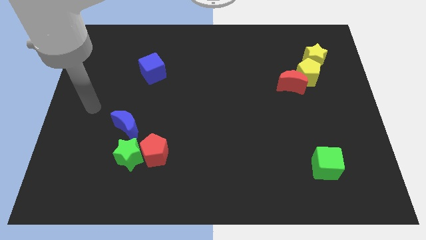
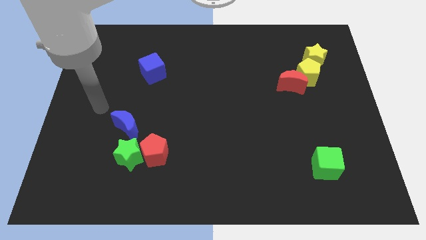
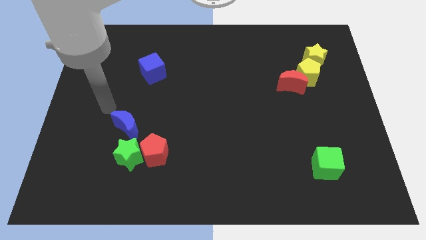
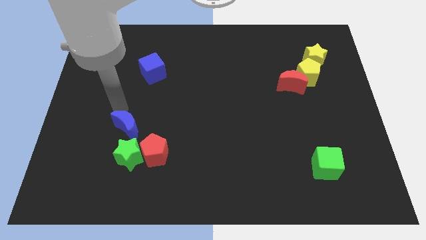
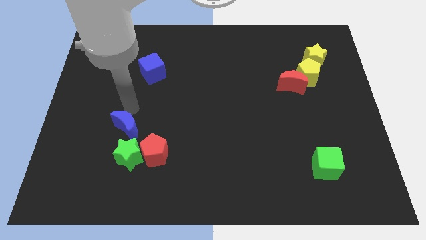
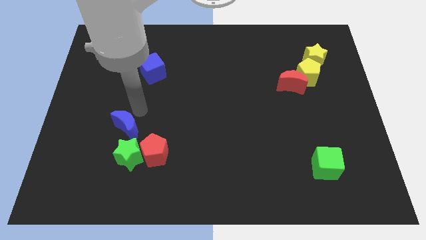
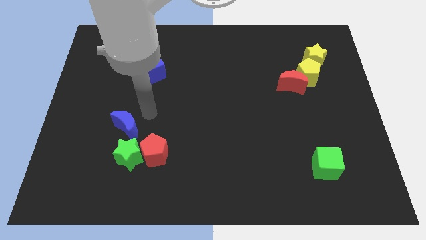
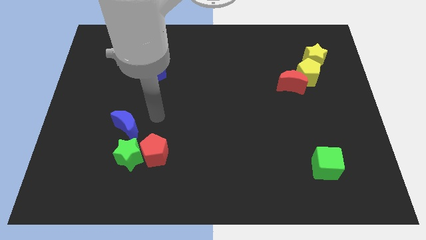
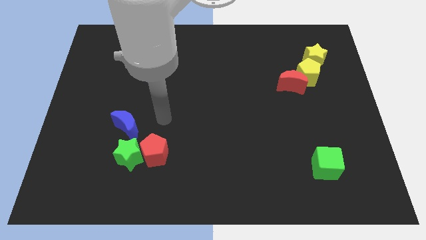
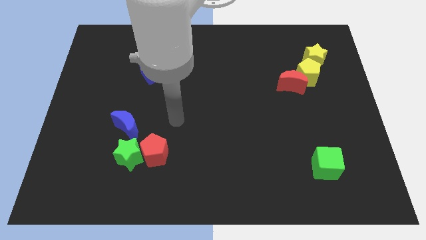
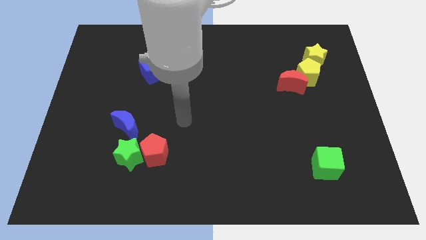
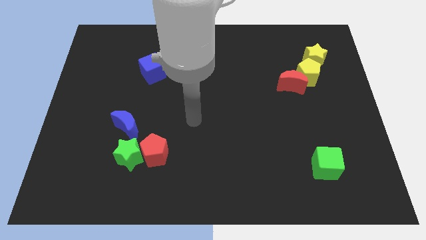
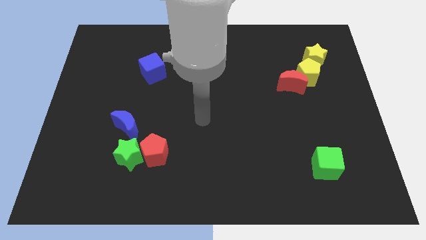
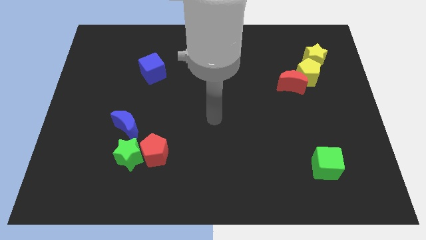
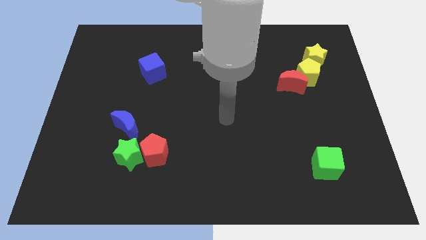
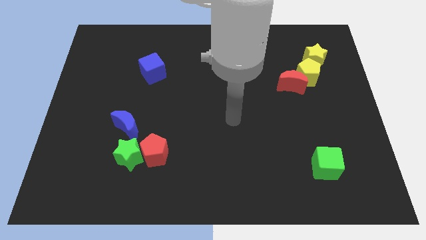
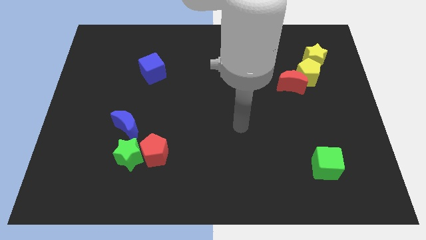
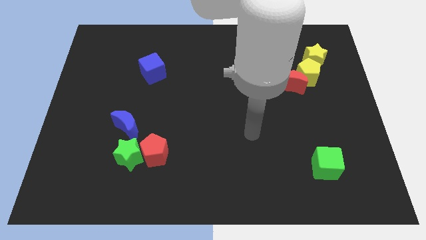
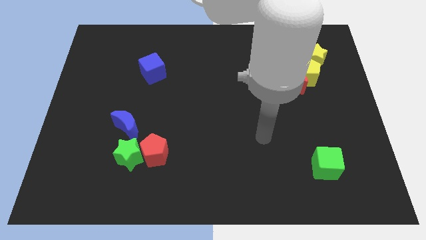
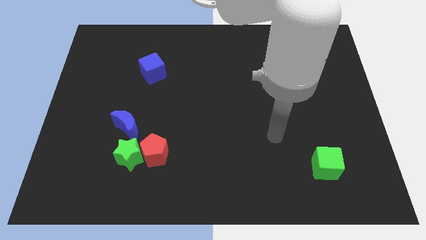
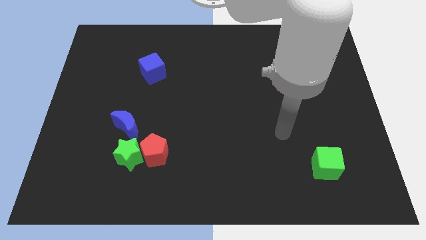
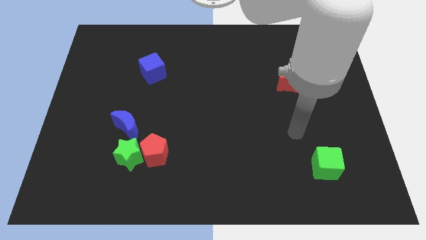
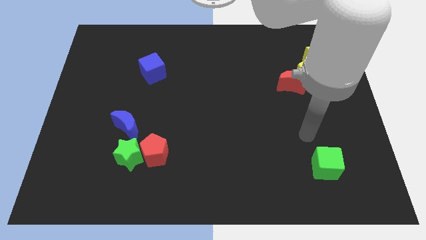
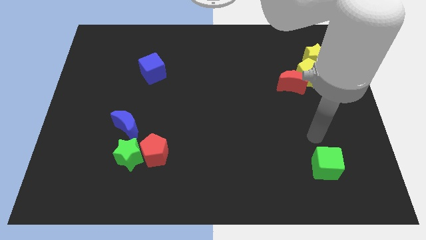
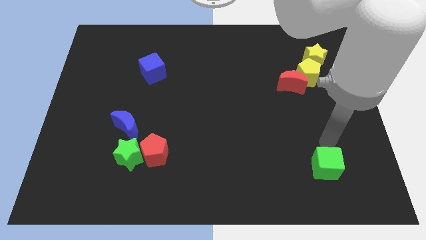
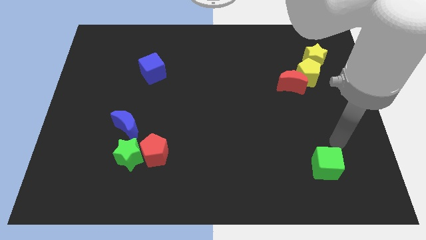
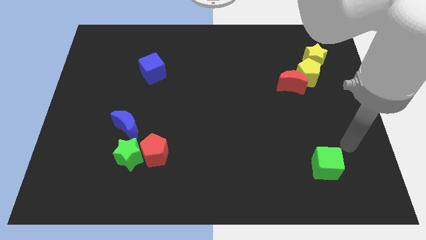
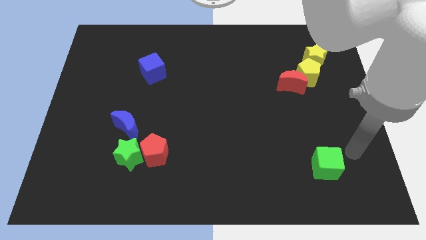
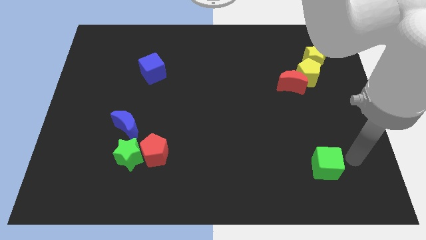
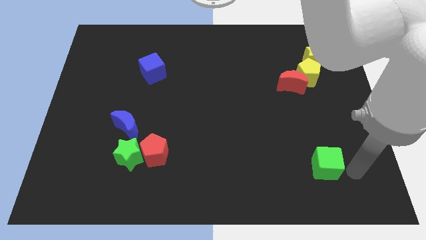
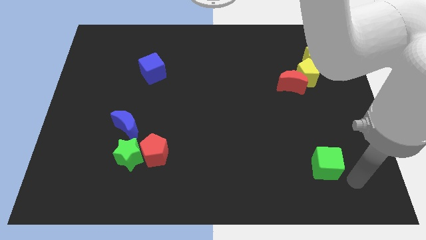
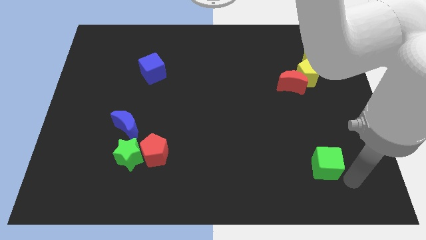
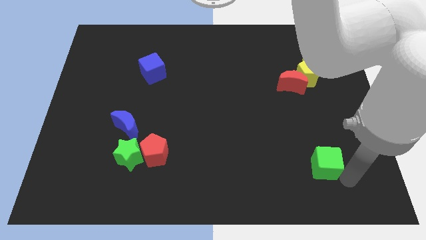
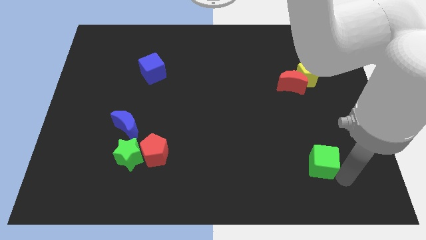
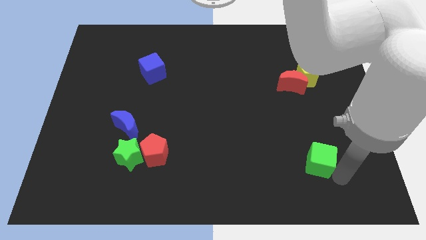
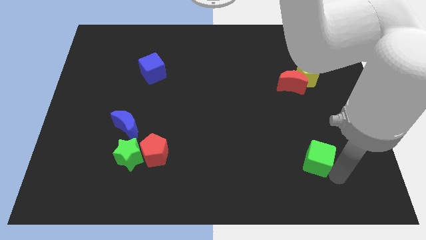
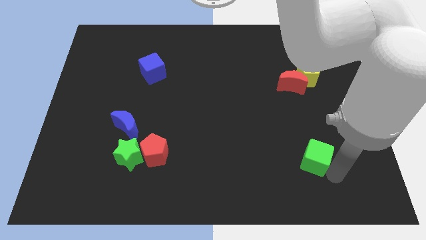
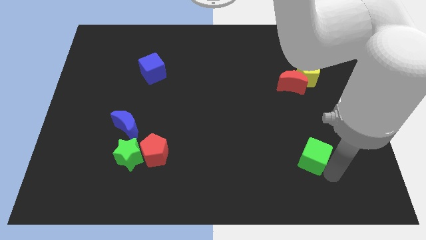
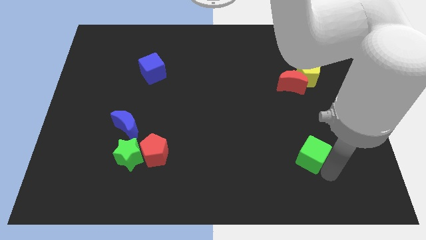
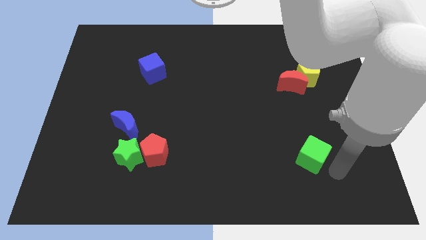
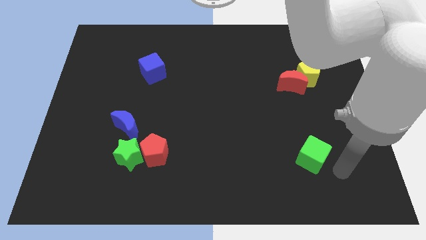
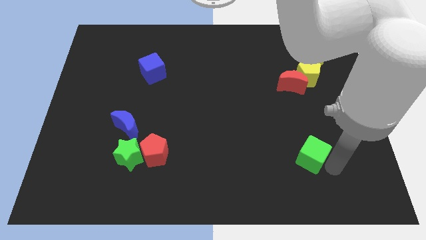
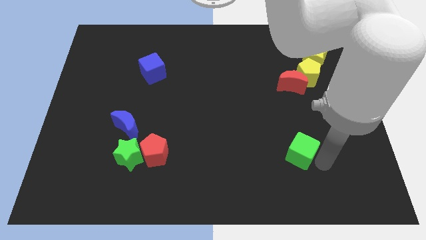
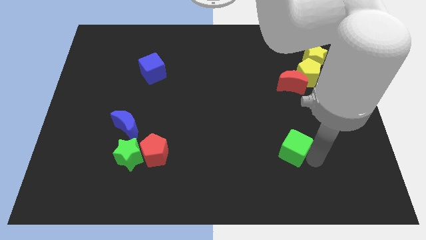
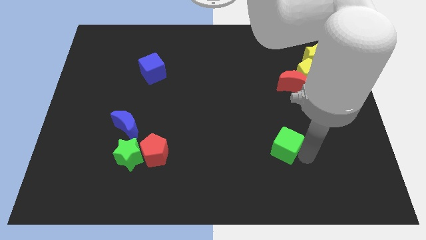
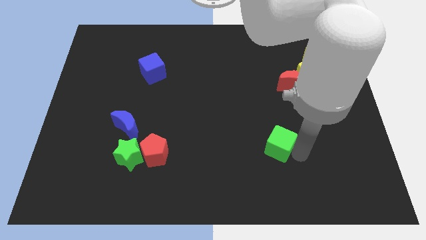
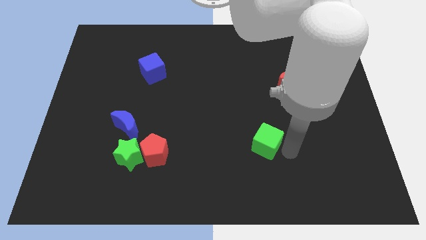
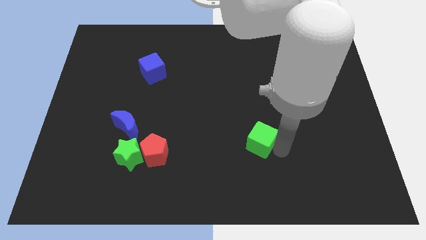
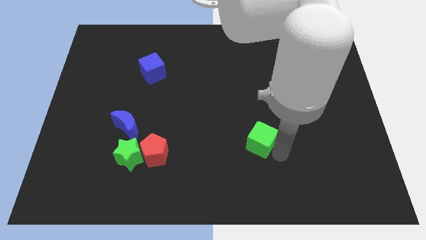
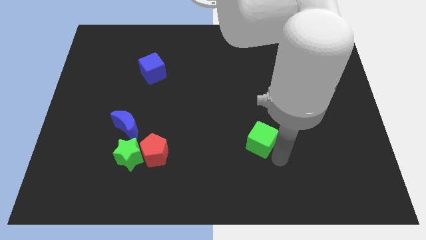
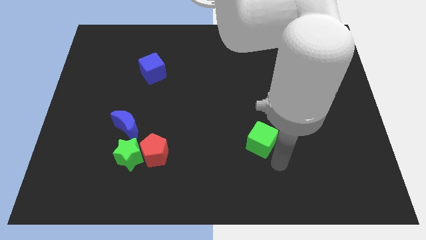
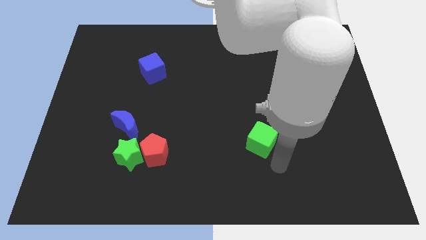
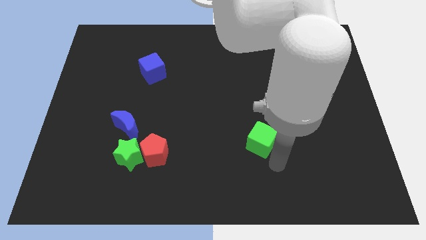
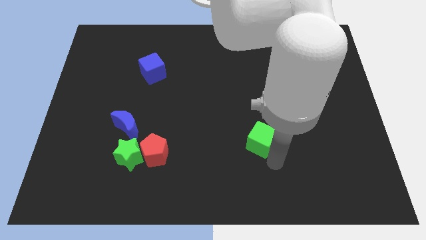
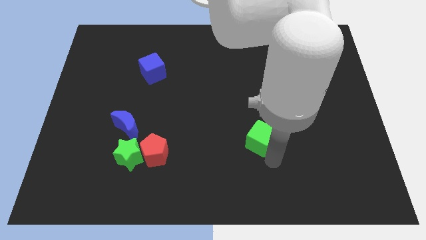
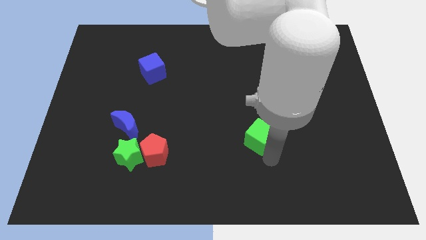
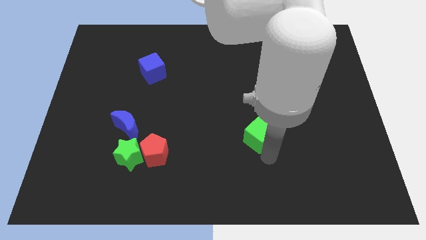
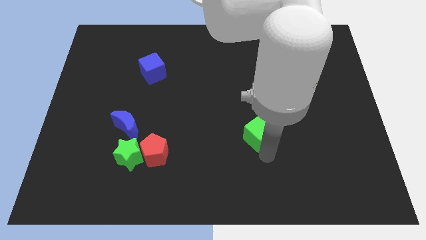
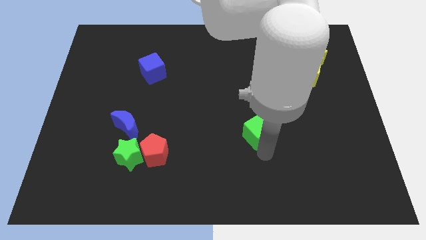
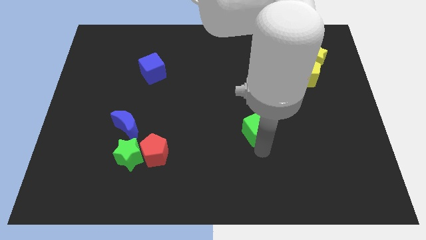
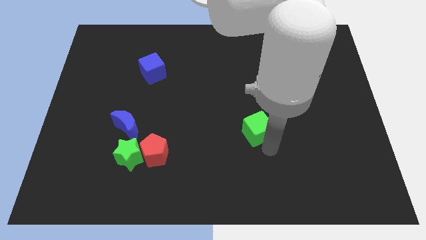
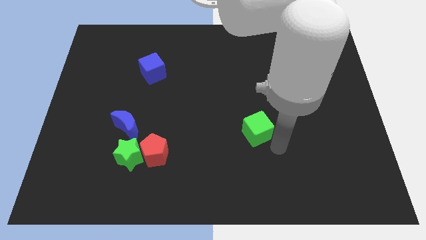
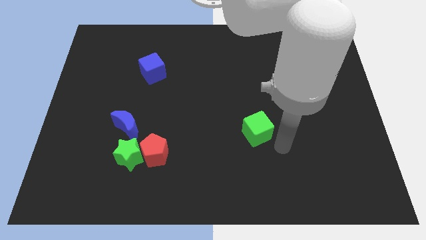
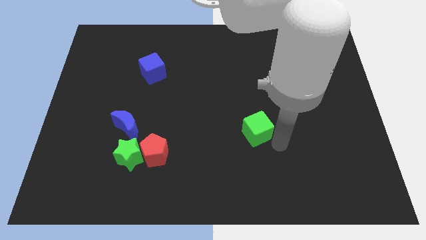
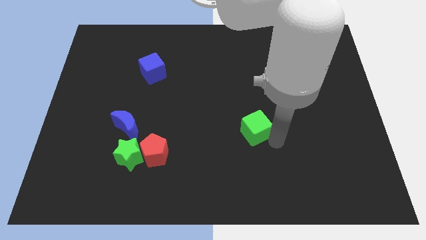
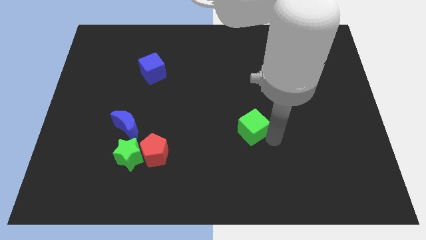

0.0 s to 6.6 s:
push the green cube to the center of the board
